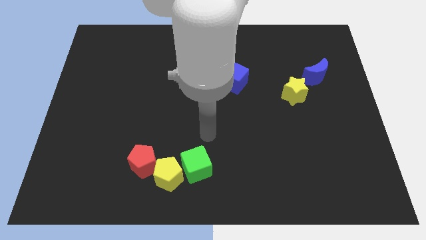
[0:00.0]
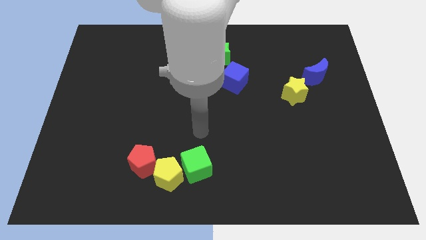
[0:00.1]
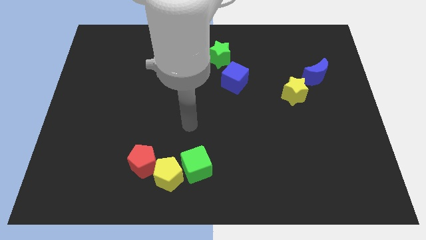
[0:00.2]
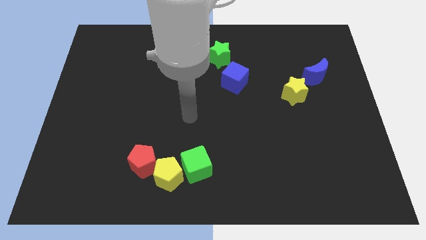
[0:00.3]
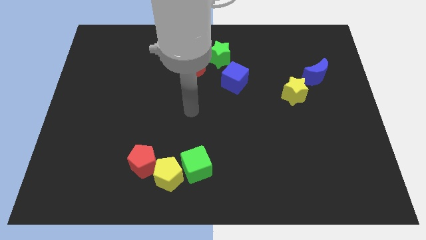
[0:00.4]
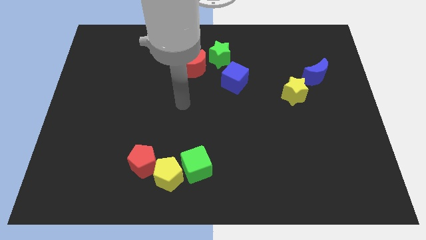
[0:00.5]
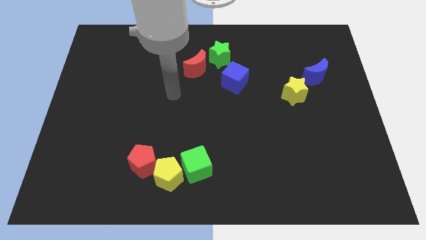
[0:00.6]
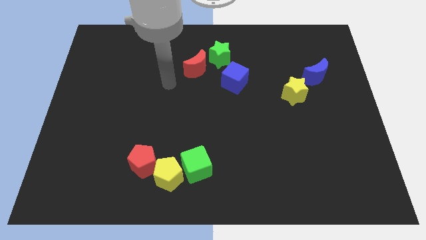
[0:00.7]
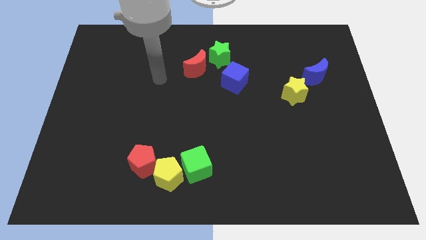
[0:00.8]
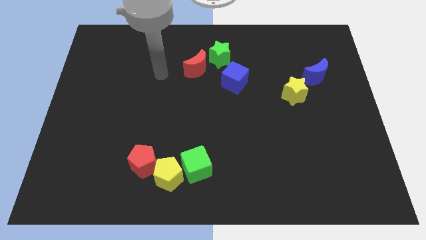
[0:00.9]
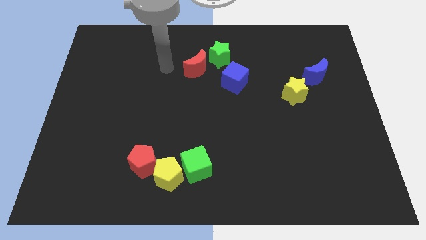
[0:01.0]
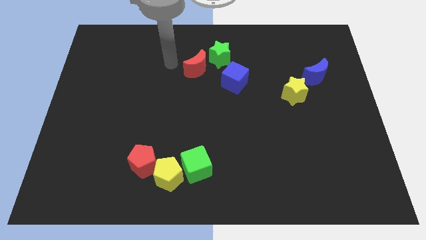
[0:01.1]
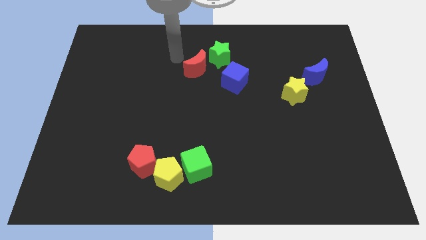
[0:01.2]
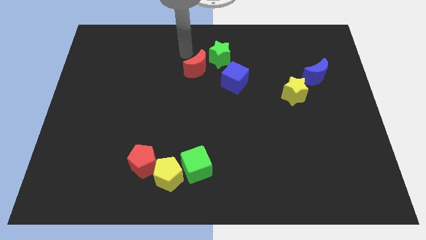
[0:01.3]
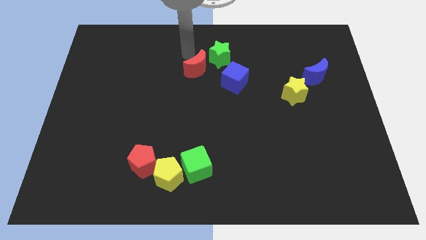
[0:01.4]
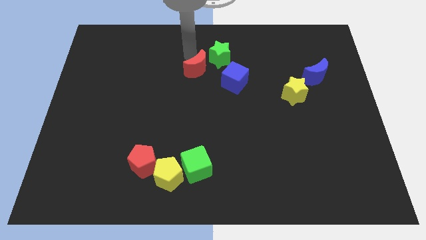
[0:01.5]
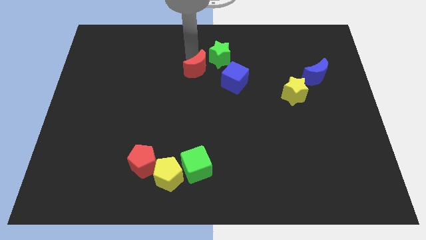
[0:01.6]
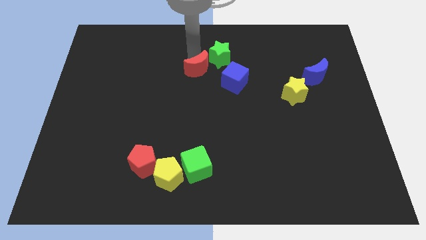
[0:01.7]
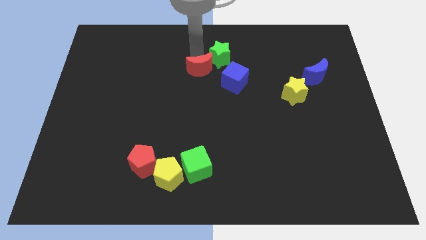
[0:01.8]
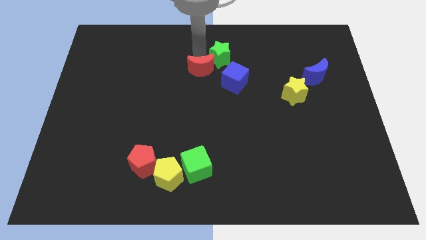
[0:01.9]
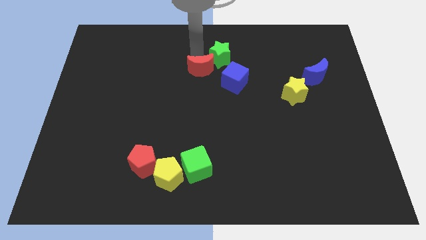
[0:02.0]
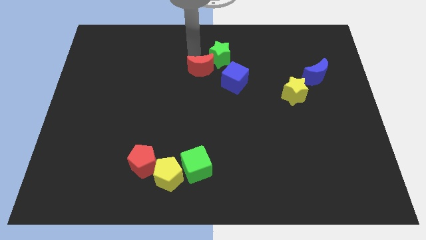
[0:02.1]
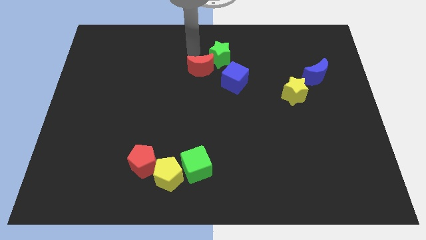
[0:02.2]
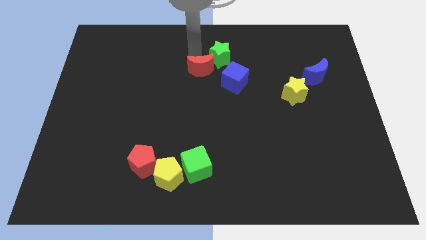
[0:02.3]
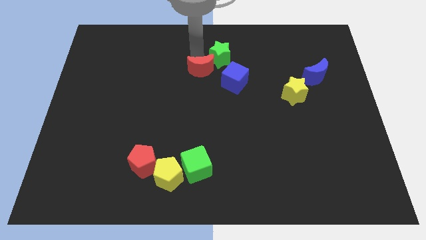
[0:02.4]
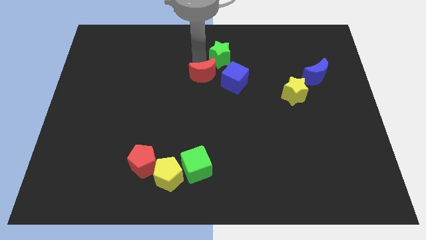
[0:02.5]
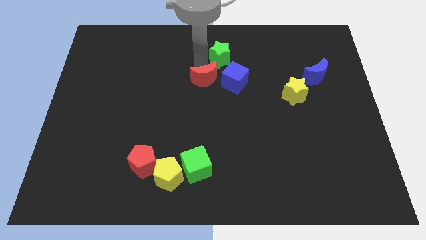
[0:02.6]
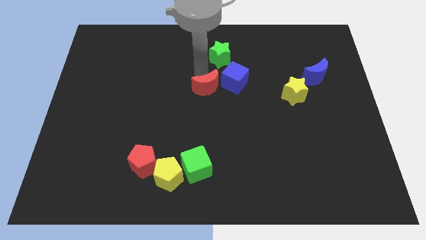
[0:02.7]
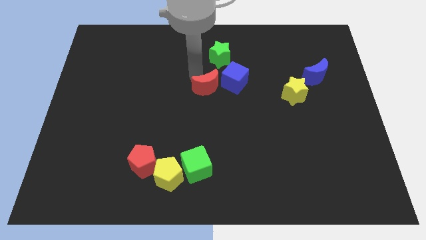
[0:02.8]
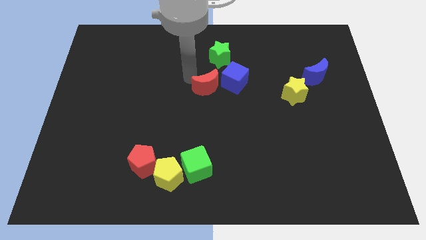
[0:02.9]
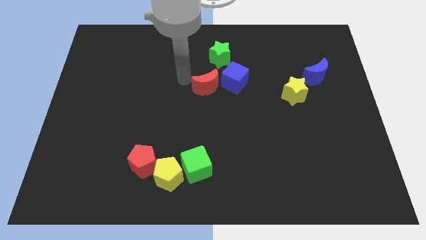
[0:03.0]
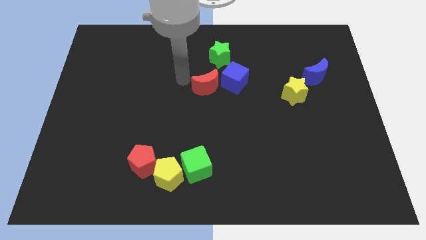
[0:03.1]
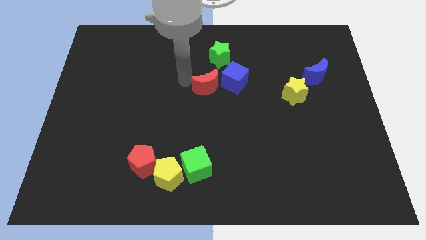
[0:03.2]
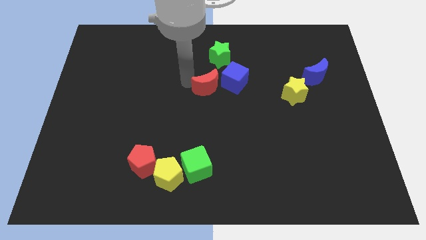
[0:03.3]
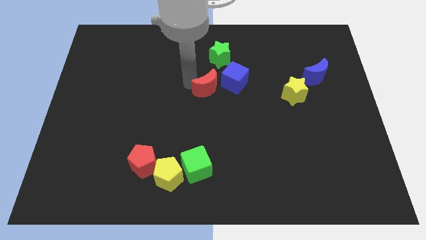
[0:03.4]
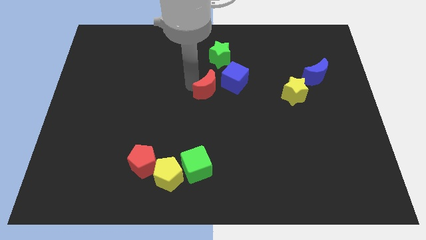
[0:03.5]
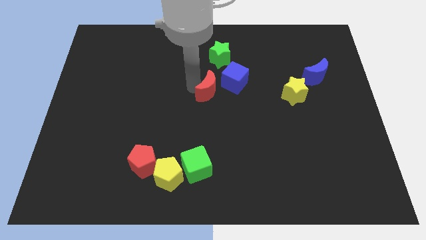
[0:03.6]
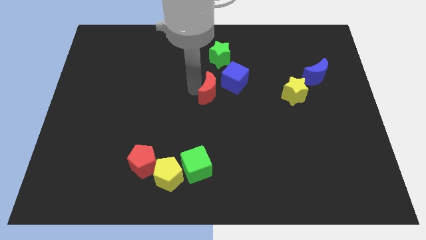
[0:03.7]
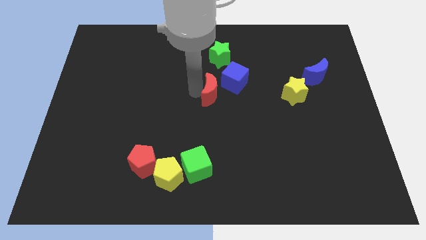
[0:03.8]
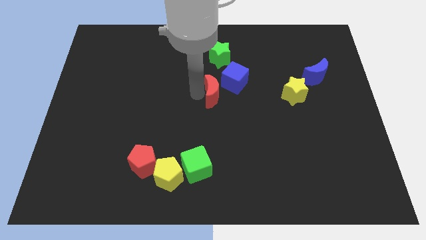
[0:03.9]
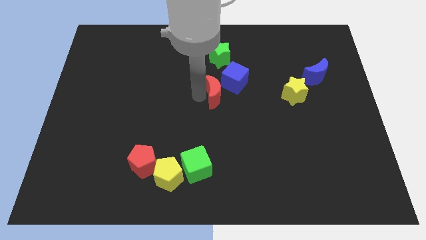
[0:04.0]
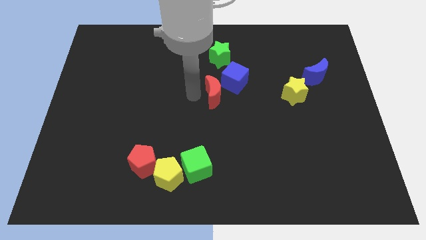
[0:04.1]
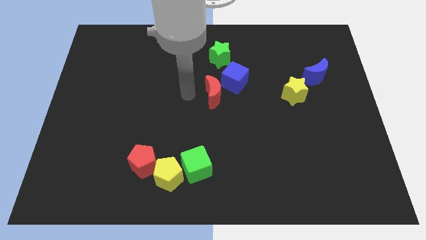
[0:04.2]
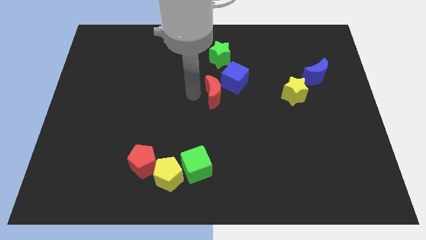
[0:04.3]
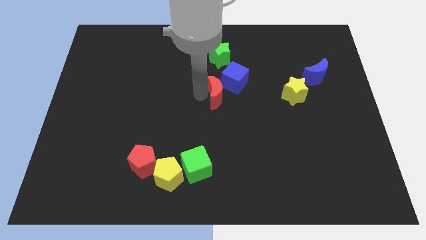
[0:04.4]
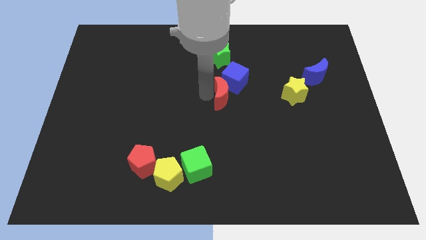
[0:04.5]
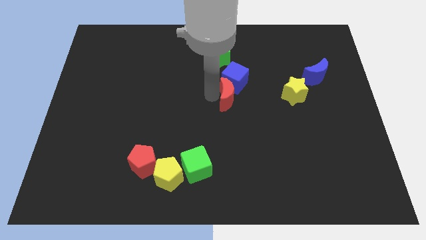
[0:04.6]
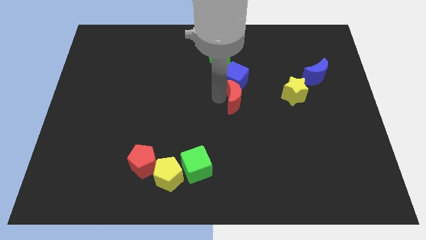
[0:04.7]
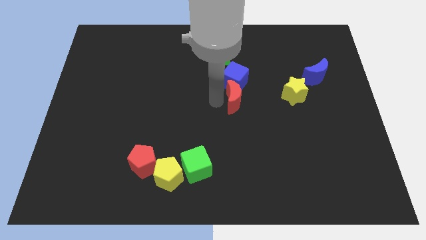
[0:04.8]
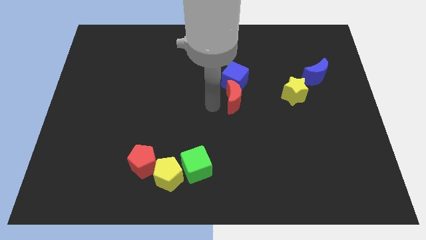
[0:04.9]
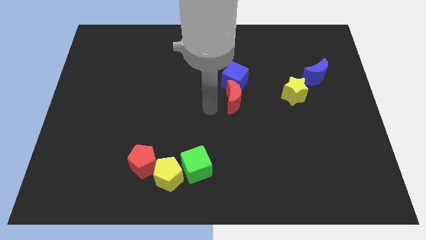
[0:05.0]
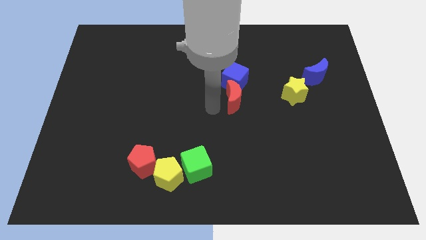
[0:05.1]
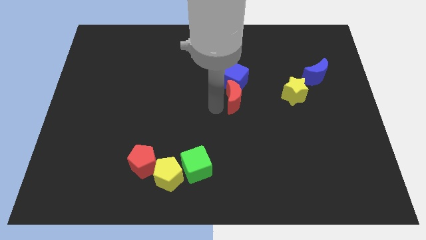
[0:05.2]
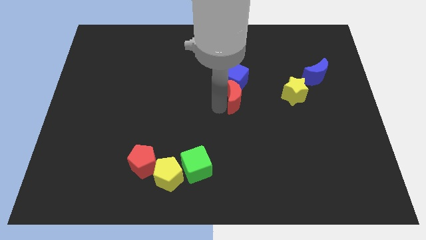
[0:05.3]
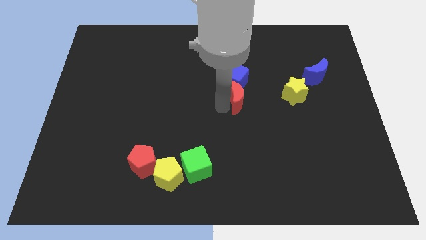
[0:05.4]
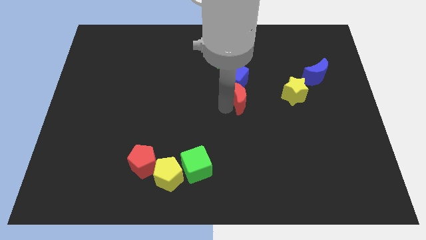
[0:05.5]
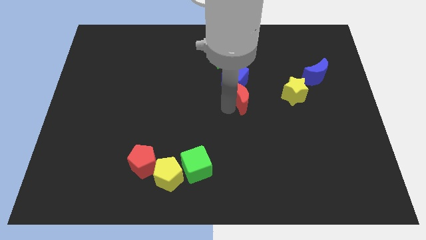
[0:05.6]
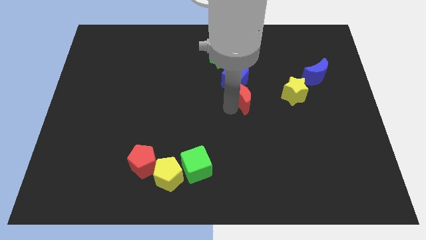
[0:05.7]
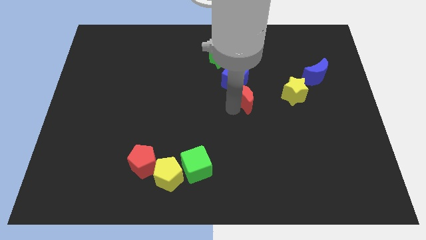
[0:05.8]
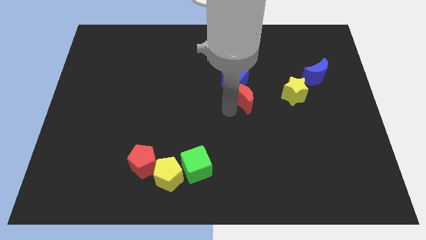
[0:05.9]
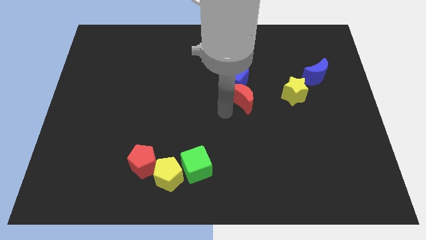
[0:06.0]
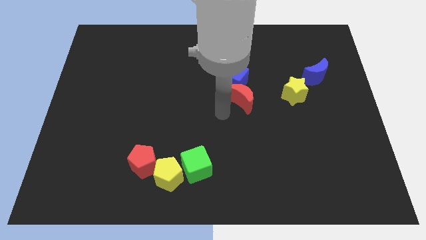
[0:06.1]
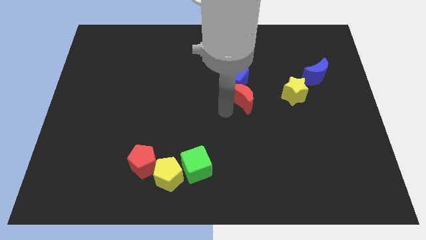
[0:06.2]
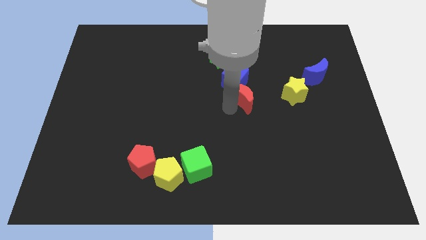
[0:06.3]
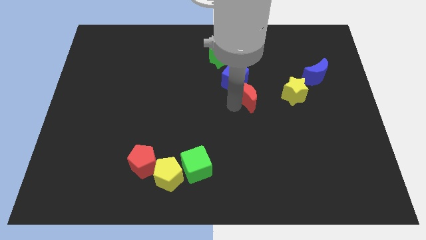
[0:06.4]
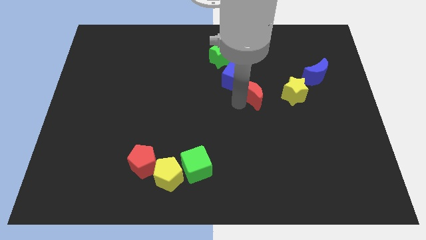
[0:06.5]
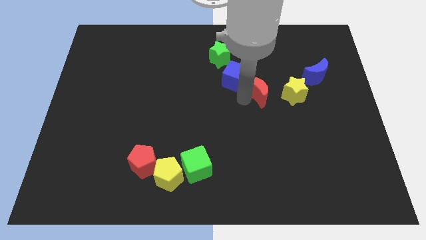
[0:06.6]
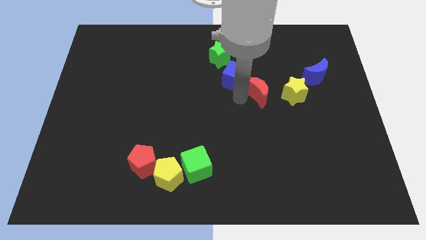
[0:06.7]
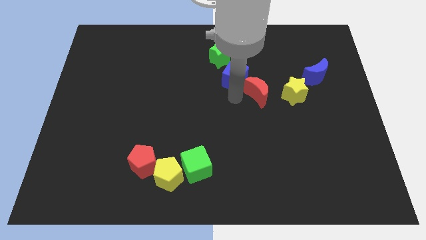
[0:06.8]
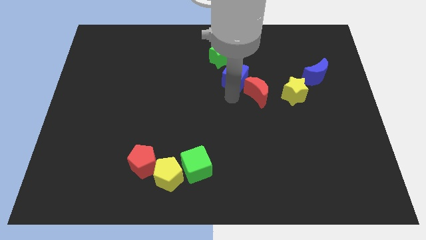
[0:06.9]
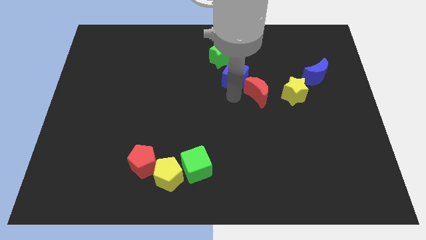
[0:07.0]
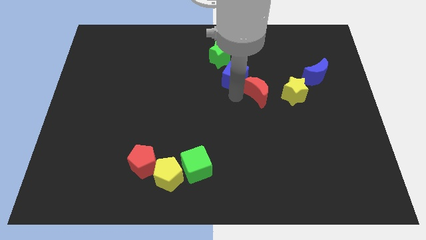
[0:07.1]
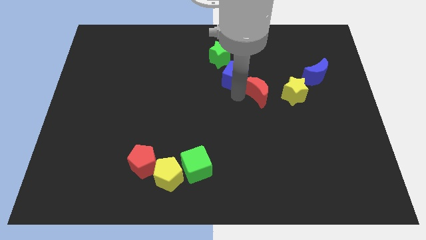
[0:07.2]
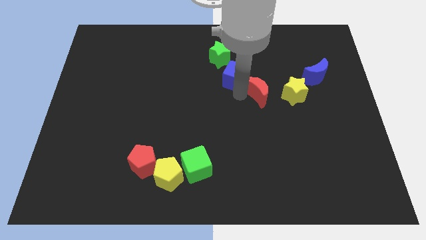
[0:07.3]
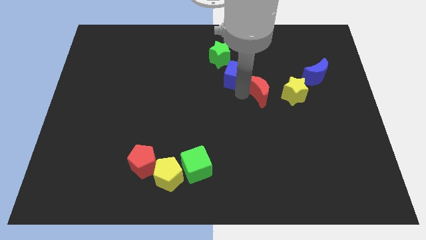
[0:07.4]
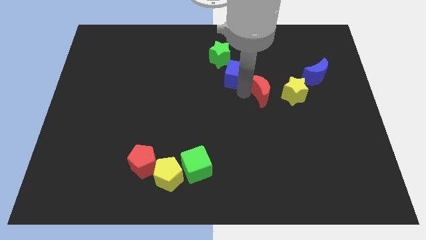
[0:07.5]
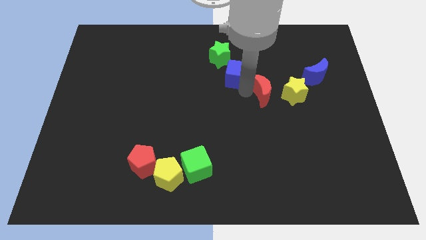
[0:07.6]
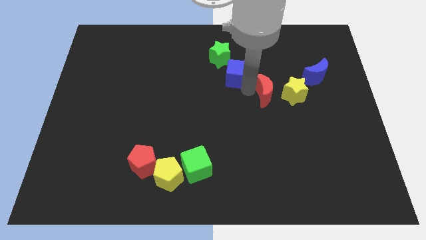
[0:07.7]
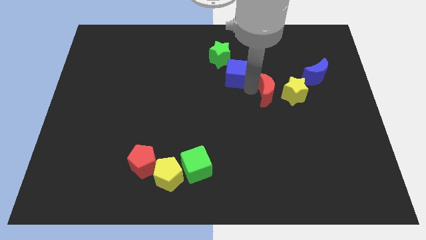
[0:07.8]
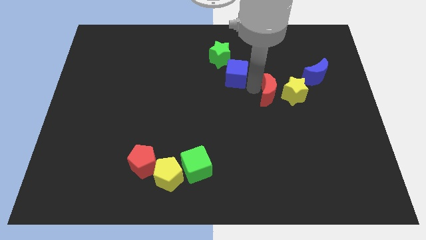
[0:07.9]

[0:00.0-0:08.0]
slide the red moon towards the yellow star
